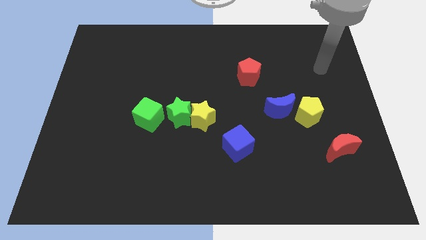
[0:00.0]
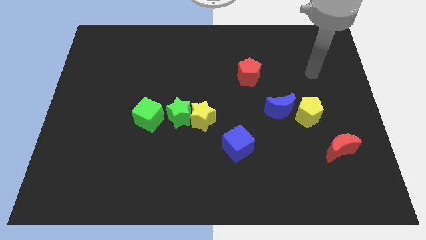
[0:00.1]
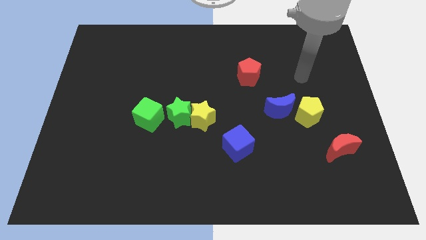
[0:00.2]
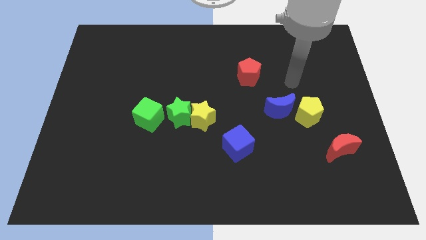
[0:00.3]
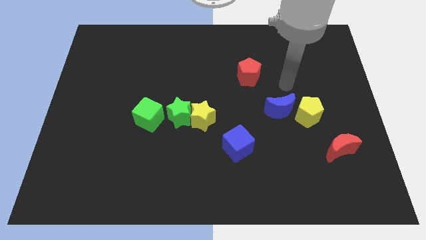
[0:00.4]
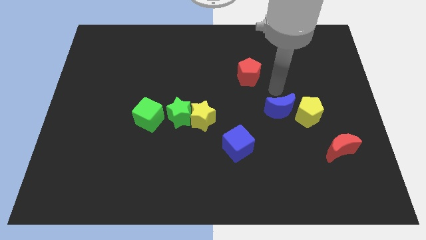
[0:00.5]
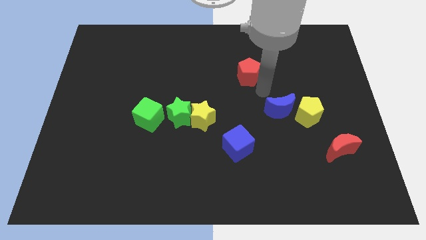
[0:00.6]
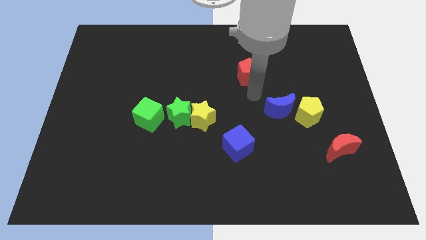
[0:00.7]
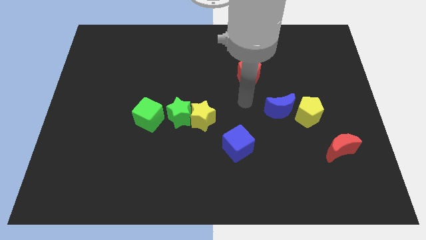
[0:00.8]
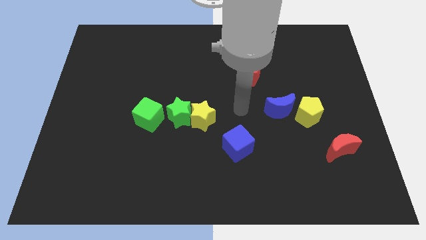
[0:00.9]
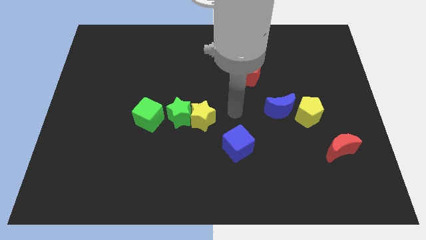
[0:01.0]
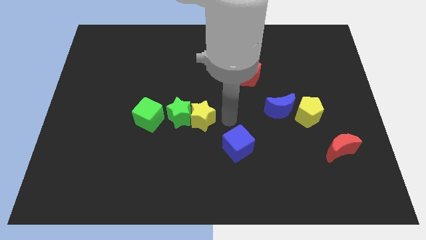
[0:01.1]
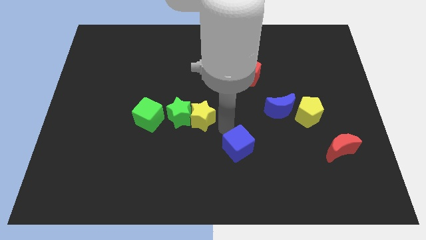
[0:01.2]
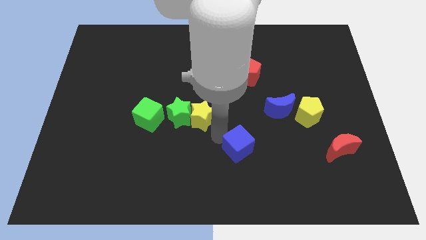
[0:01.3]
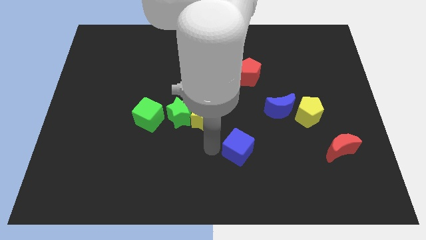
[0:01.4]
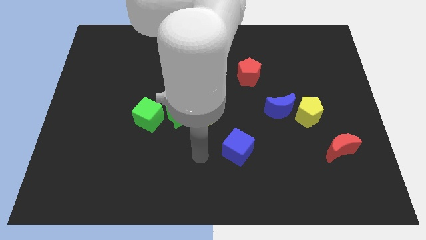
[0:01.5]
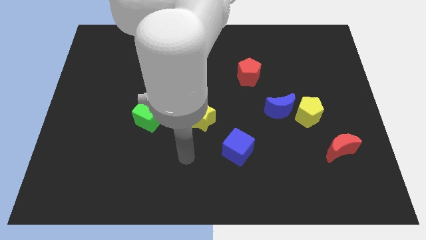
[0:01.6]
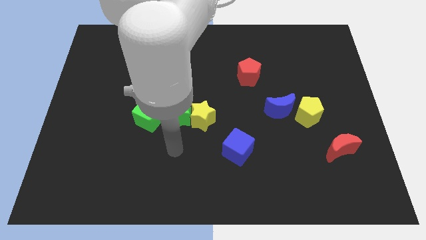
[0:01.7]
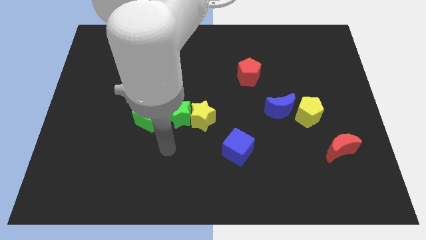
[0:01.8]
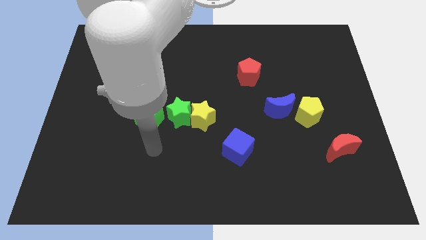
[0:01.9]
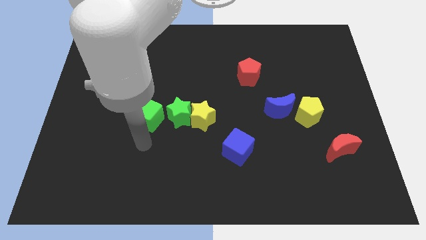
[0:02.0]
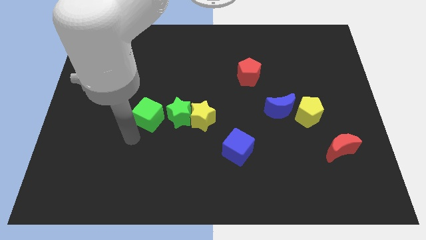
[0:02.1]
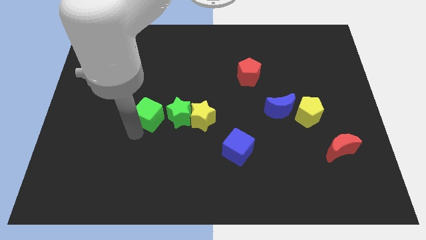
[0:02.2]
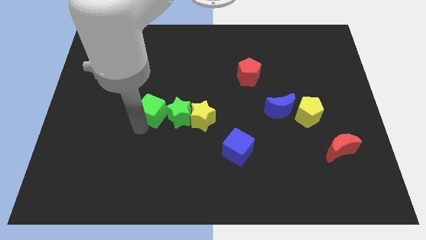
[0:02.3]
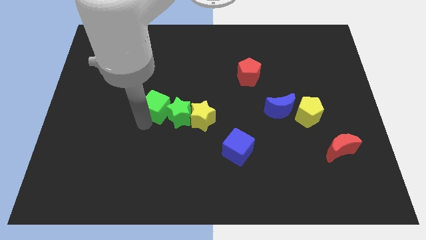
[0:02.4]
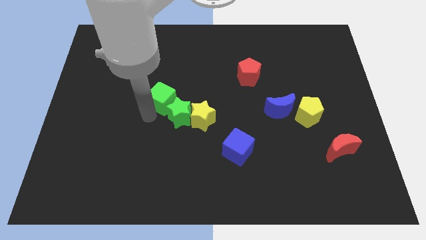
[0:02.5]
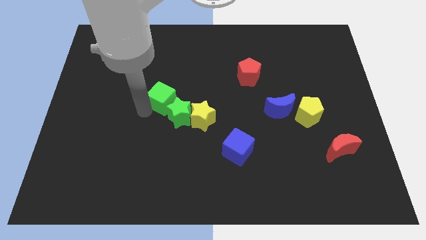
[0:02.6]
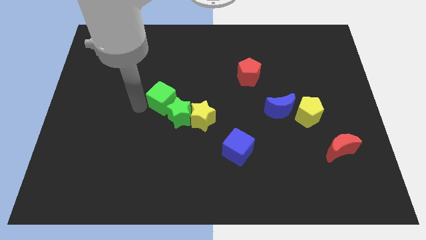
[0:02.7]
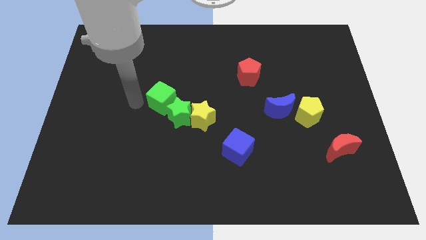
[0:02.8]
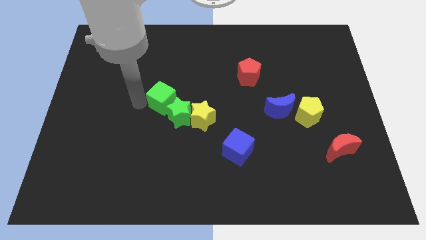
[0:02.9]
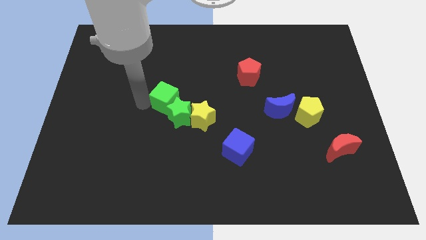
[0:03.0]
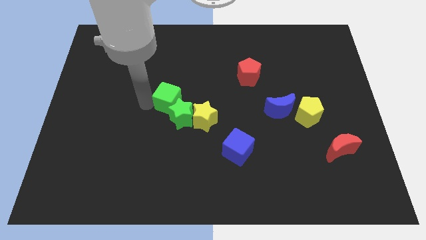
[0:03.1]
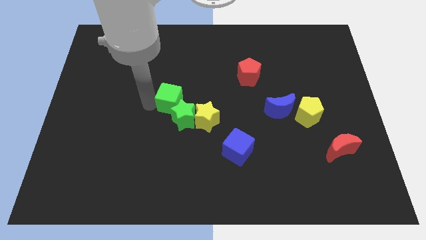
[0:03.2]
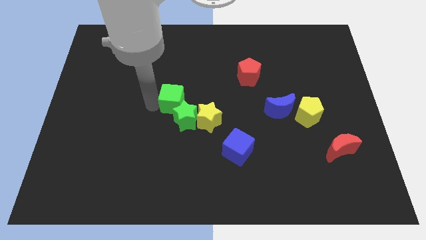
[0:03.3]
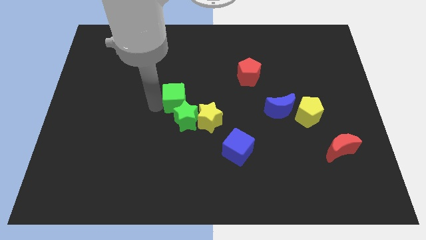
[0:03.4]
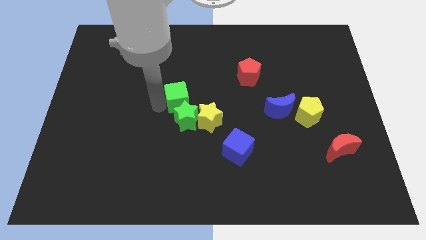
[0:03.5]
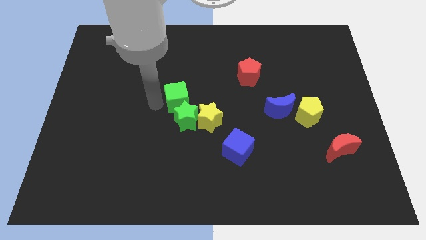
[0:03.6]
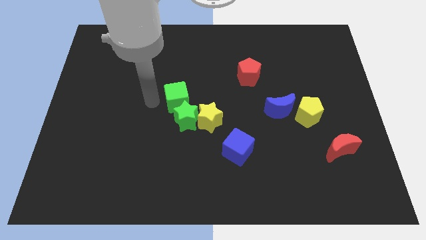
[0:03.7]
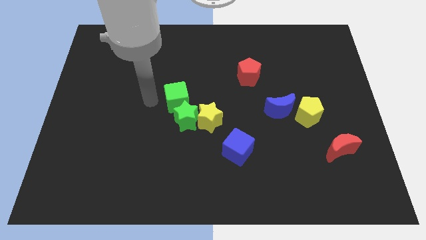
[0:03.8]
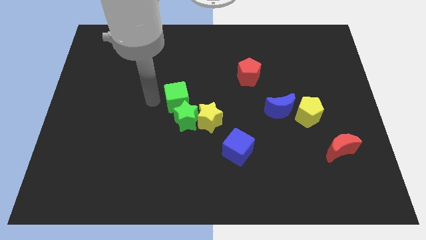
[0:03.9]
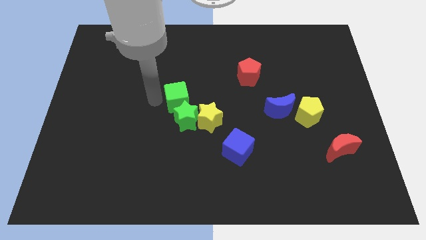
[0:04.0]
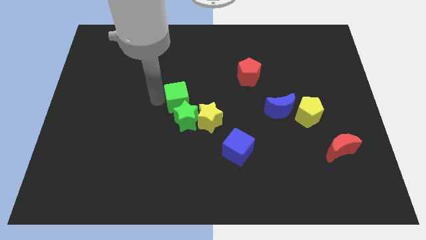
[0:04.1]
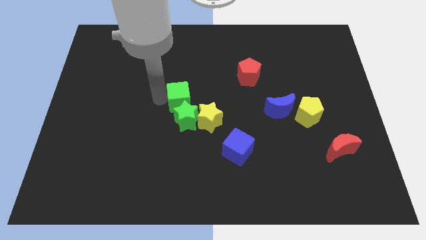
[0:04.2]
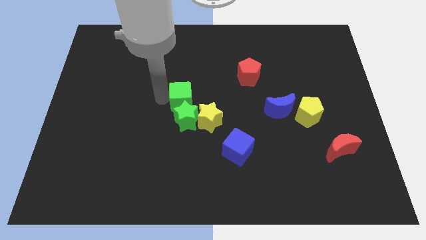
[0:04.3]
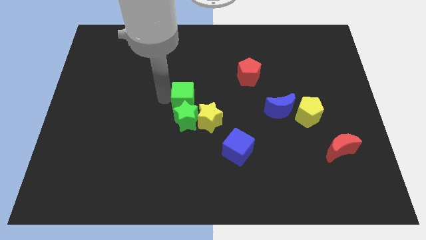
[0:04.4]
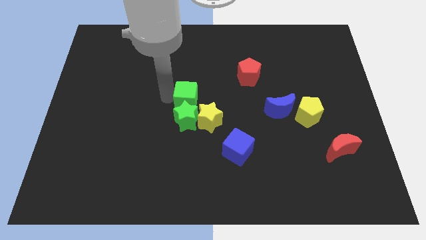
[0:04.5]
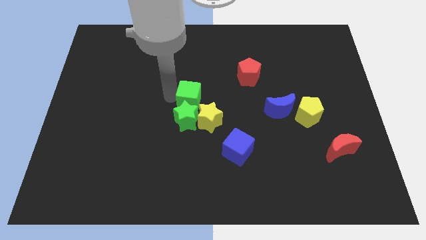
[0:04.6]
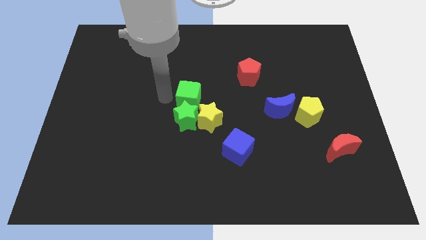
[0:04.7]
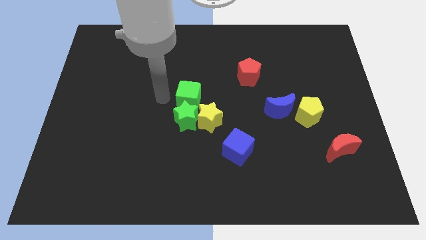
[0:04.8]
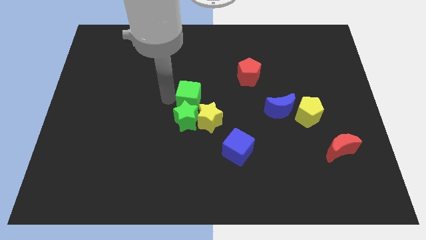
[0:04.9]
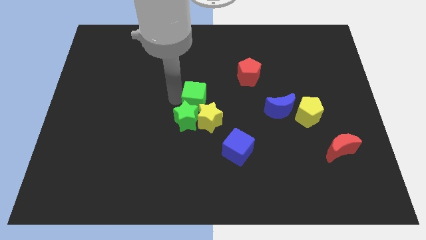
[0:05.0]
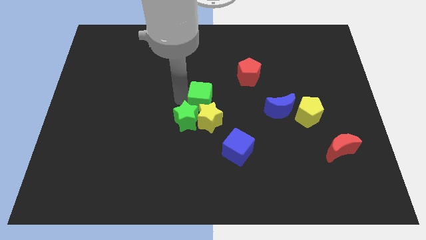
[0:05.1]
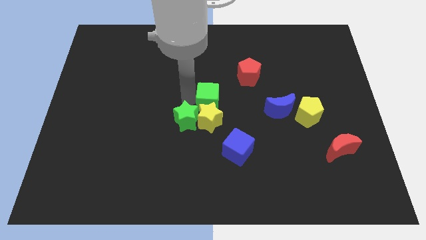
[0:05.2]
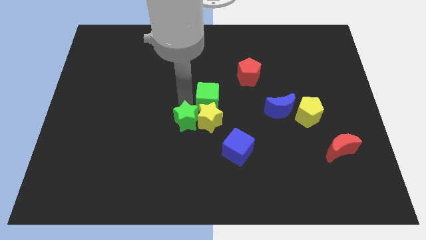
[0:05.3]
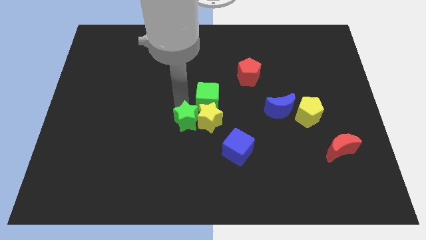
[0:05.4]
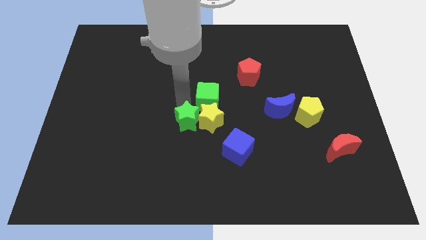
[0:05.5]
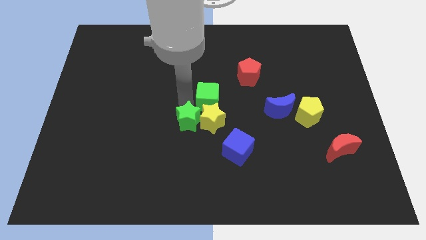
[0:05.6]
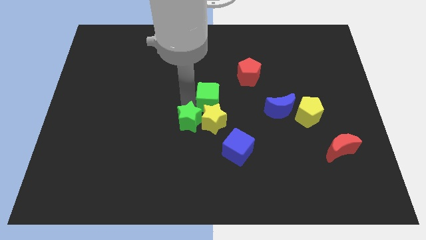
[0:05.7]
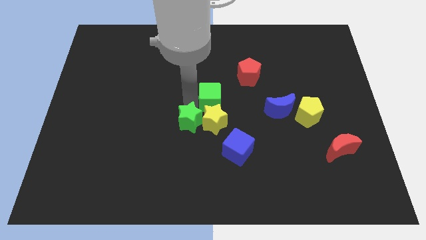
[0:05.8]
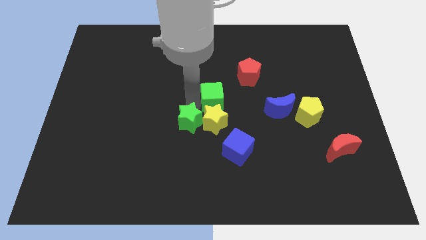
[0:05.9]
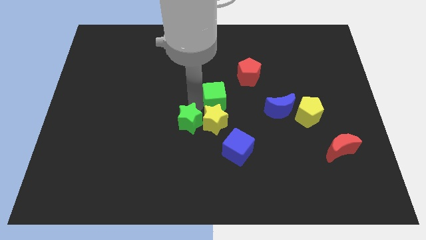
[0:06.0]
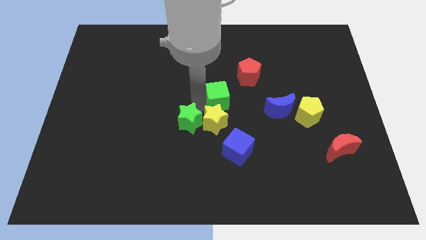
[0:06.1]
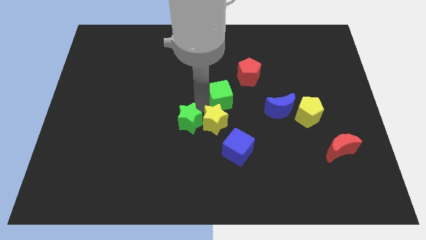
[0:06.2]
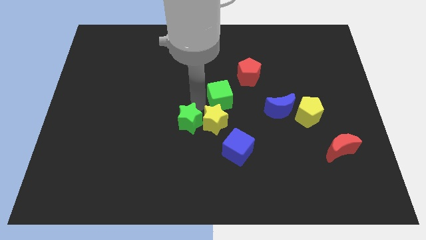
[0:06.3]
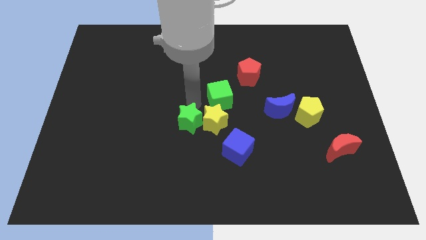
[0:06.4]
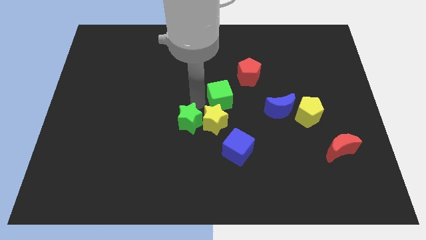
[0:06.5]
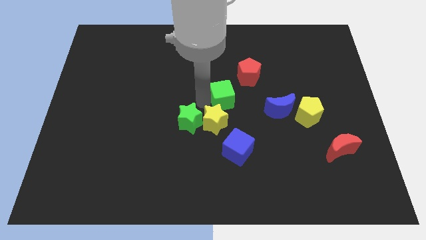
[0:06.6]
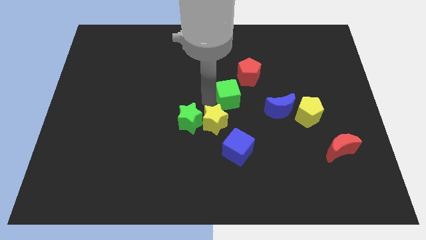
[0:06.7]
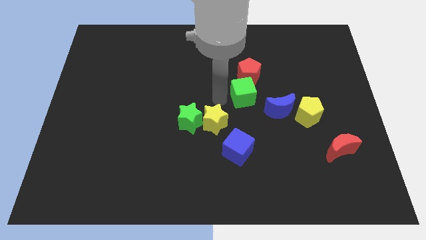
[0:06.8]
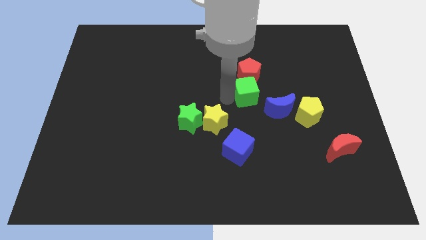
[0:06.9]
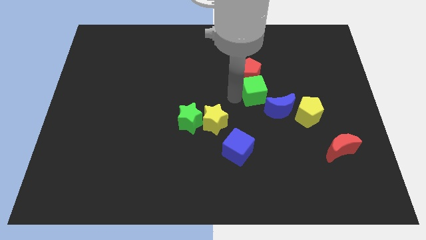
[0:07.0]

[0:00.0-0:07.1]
slide the green cube to the bottom right of the red pentagon
